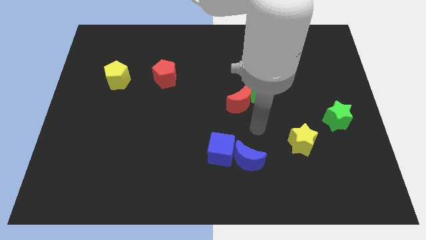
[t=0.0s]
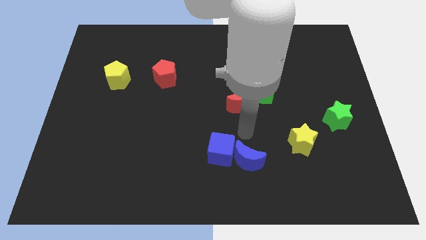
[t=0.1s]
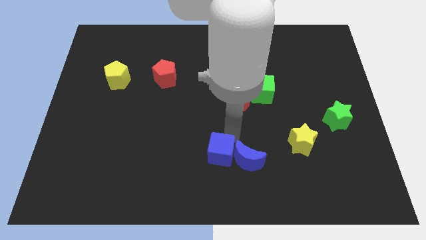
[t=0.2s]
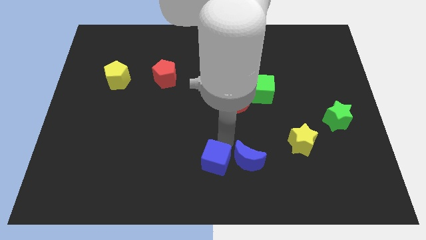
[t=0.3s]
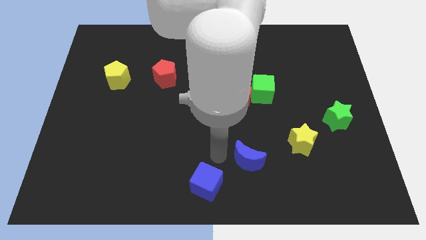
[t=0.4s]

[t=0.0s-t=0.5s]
pull the blue moon apart from the blue cube

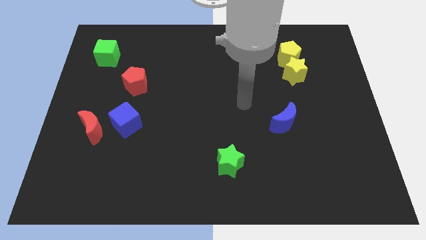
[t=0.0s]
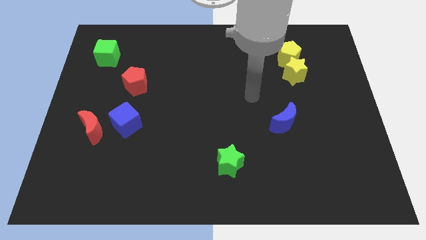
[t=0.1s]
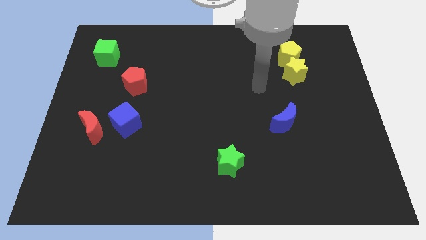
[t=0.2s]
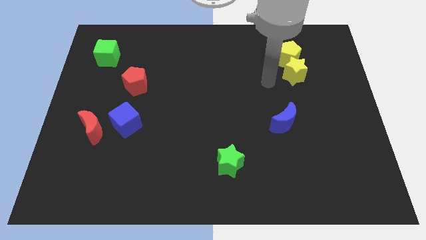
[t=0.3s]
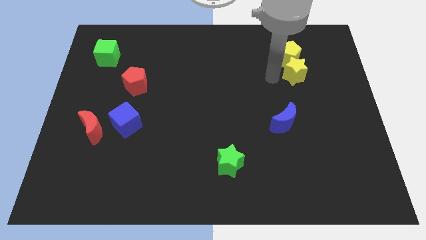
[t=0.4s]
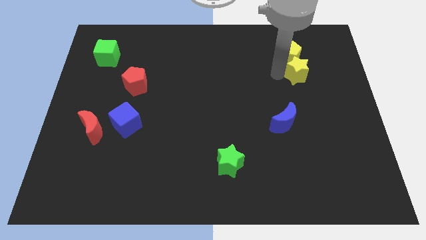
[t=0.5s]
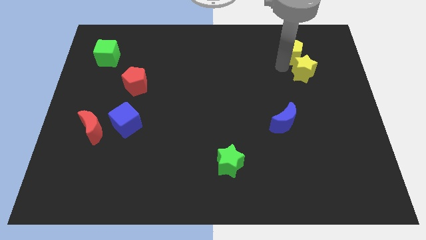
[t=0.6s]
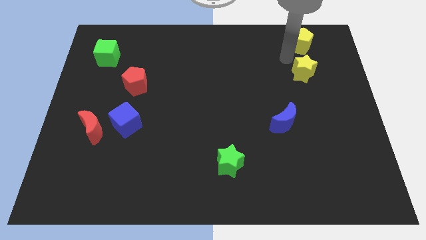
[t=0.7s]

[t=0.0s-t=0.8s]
pull the yellow star apart from the yellow pentagon

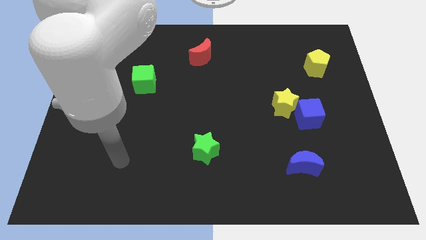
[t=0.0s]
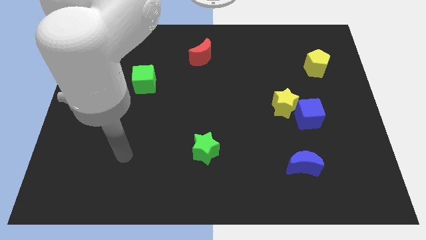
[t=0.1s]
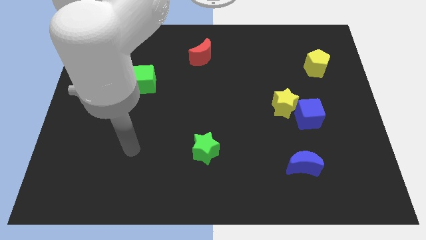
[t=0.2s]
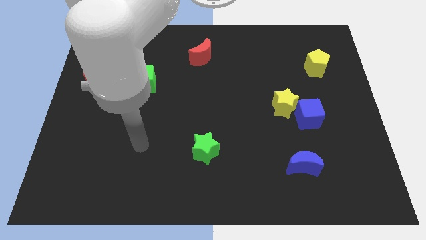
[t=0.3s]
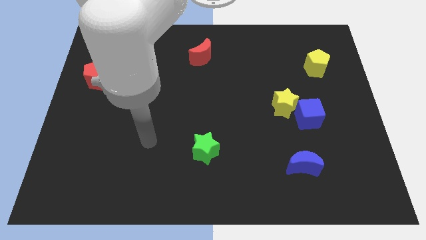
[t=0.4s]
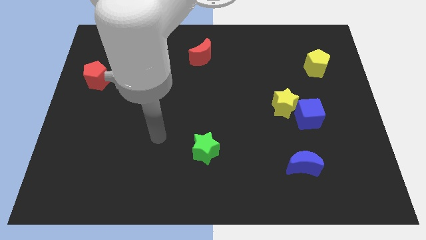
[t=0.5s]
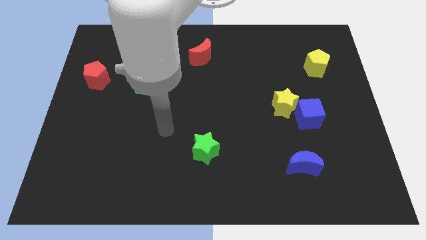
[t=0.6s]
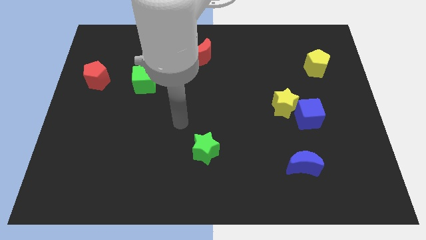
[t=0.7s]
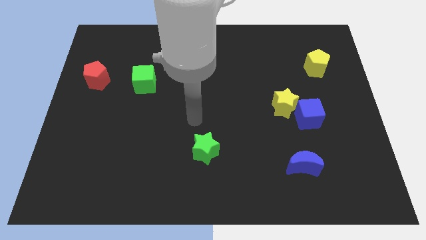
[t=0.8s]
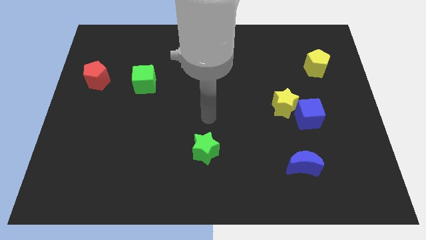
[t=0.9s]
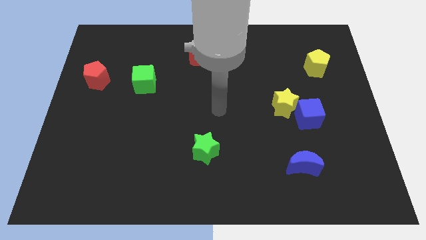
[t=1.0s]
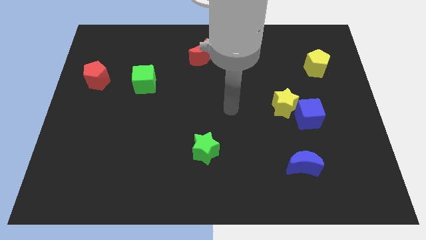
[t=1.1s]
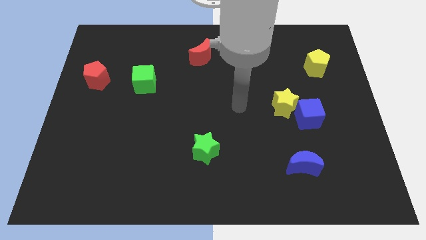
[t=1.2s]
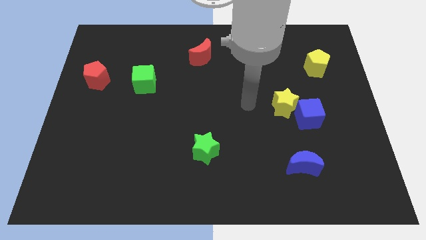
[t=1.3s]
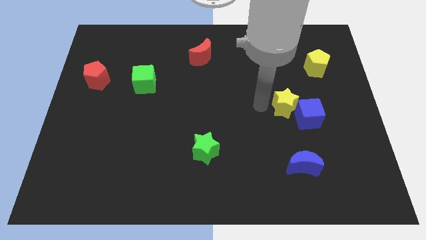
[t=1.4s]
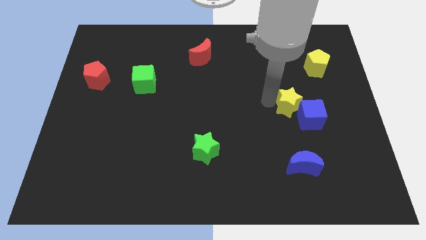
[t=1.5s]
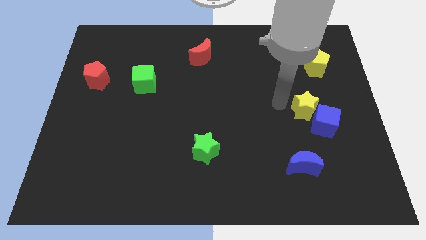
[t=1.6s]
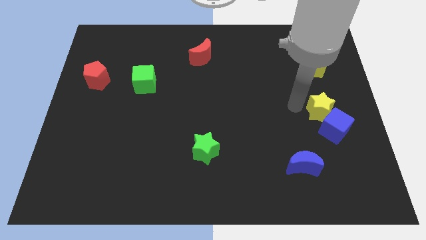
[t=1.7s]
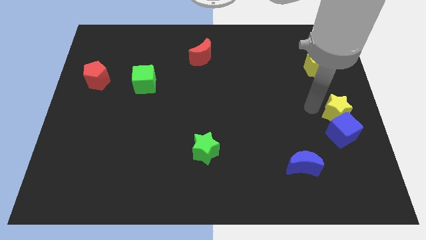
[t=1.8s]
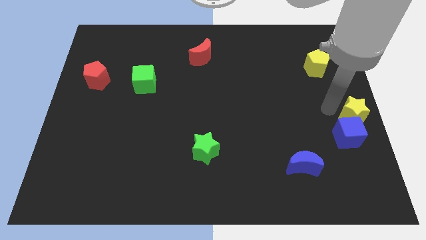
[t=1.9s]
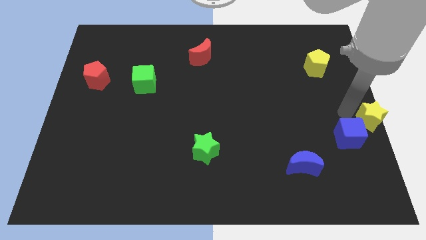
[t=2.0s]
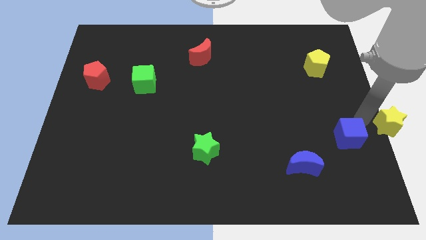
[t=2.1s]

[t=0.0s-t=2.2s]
separate the blue cube from the yellow star

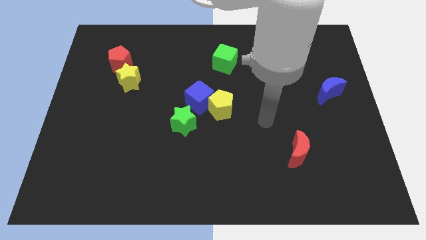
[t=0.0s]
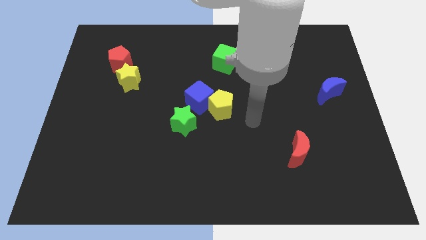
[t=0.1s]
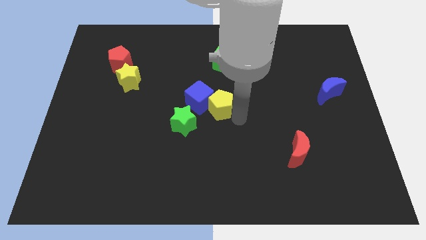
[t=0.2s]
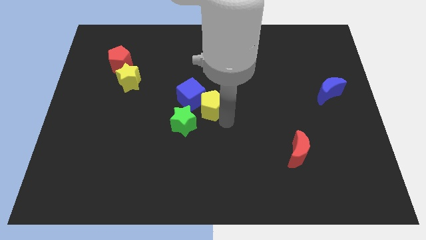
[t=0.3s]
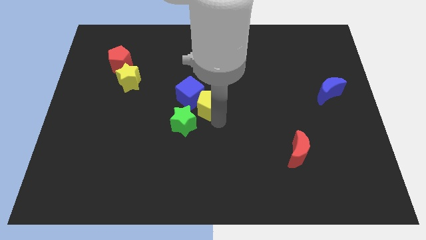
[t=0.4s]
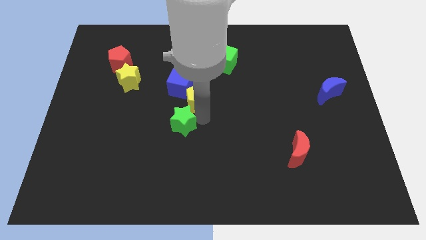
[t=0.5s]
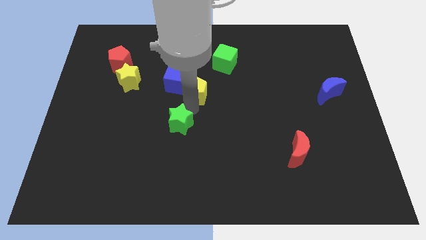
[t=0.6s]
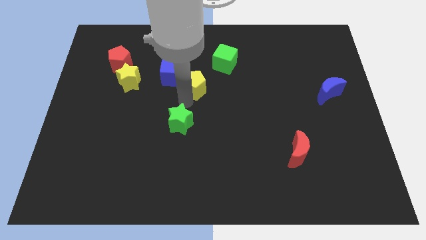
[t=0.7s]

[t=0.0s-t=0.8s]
pull the blue cube apart from the yellow pentagon and green star

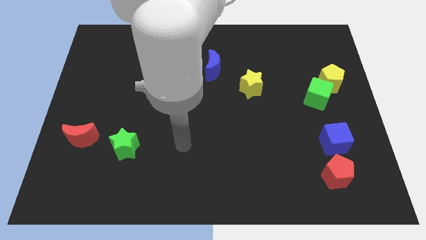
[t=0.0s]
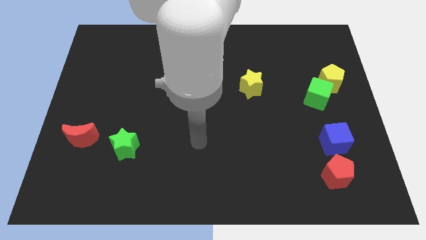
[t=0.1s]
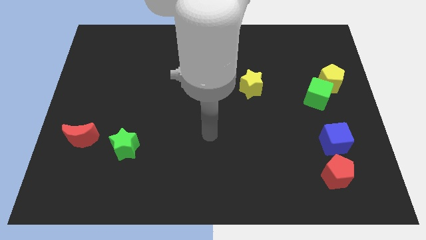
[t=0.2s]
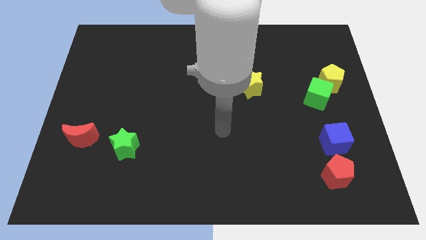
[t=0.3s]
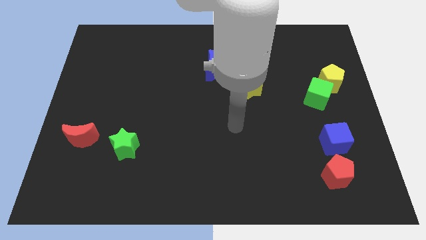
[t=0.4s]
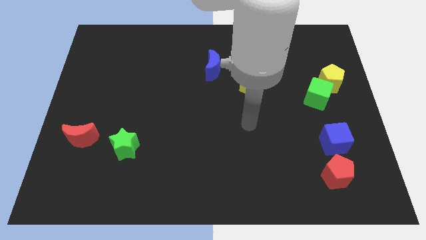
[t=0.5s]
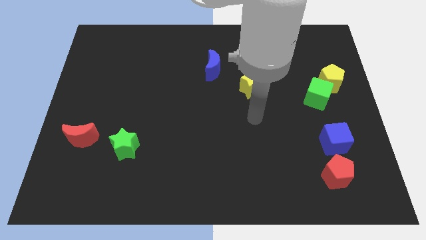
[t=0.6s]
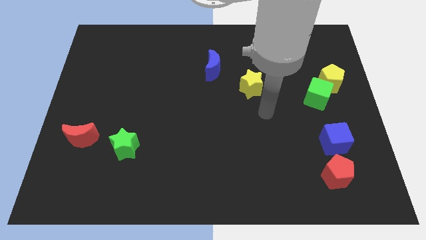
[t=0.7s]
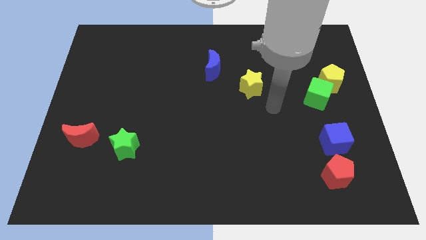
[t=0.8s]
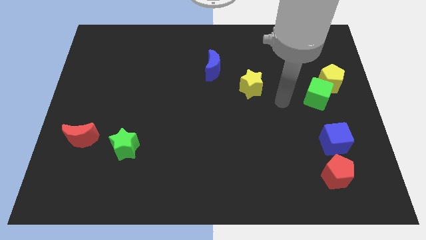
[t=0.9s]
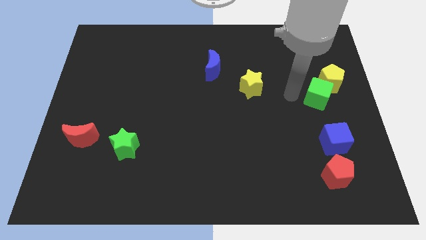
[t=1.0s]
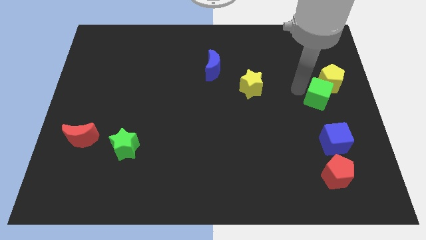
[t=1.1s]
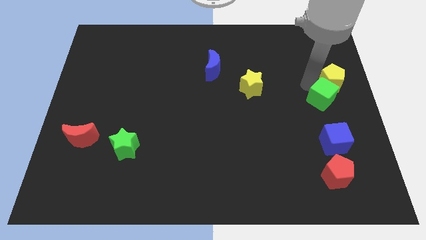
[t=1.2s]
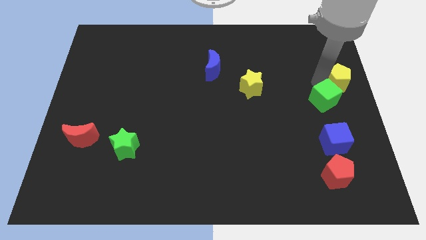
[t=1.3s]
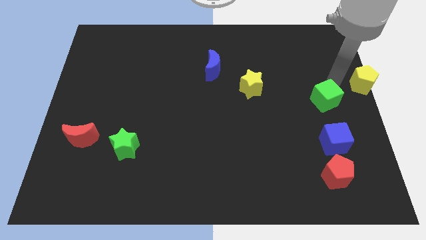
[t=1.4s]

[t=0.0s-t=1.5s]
move the green cube away from the yellow pentagon

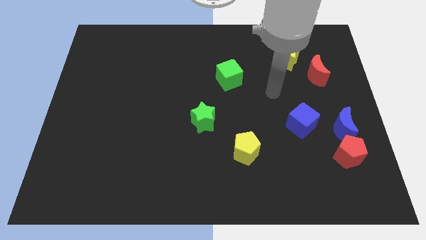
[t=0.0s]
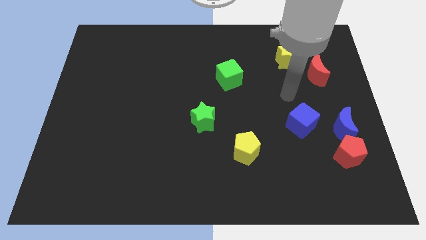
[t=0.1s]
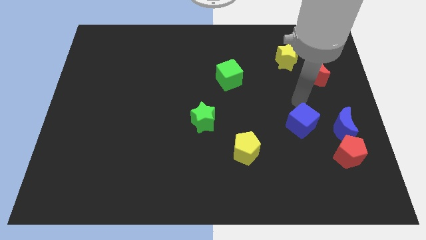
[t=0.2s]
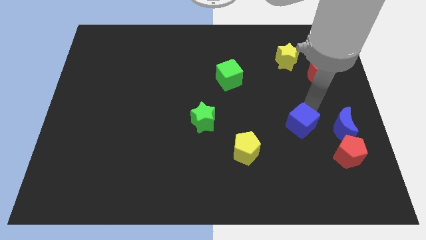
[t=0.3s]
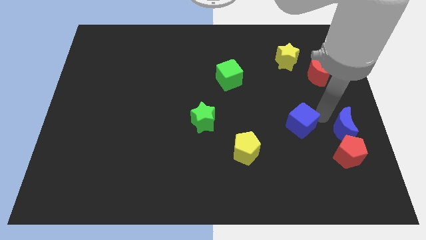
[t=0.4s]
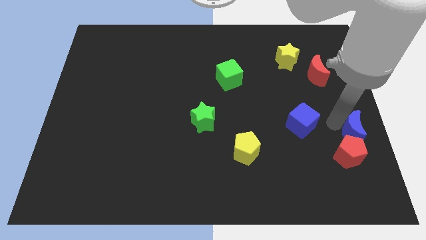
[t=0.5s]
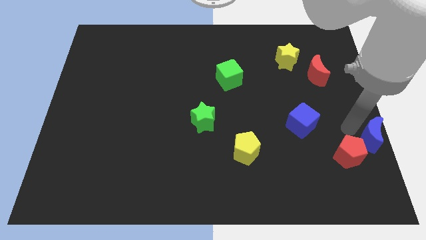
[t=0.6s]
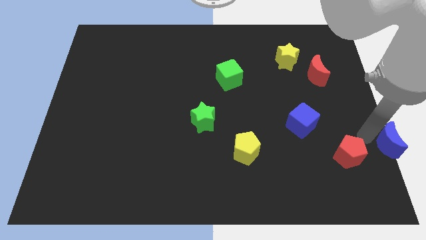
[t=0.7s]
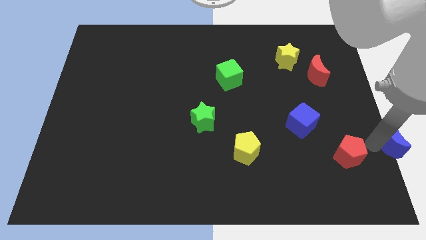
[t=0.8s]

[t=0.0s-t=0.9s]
pull the red pentagon apart from the blue moon

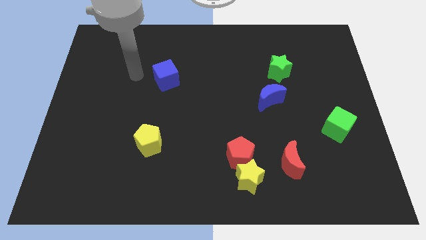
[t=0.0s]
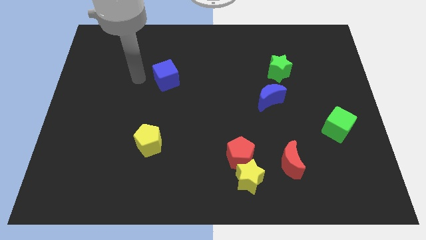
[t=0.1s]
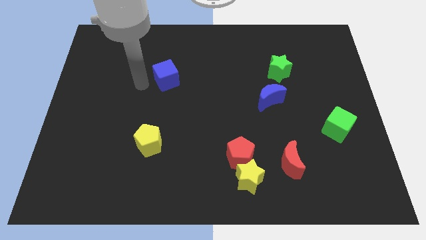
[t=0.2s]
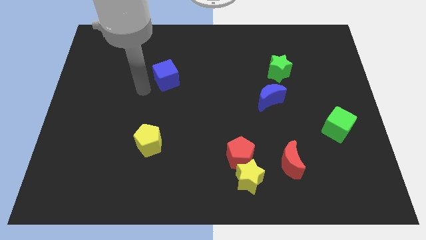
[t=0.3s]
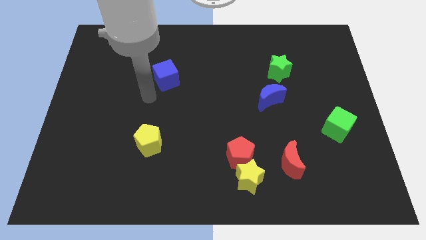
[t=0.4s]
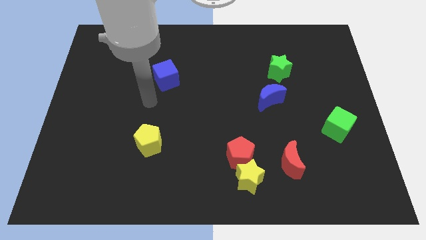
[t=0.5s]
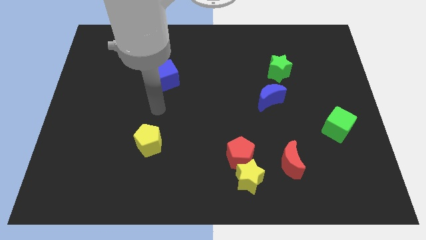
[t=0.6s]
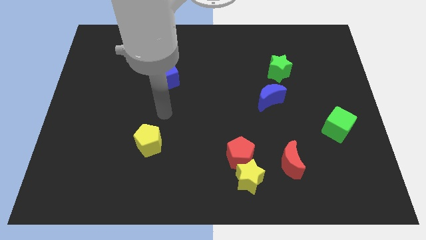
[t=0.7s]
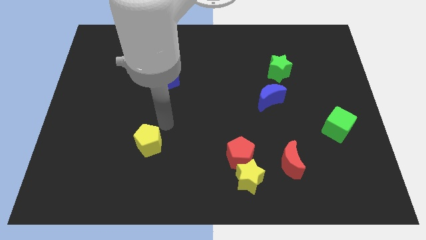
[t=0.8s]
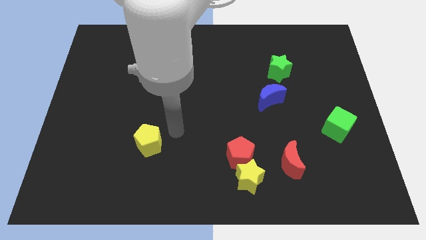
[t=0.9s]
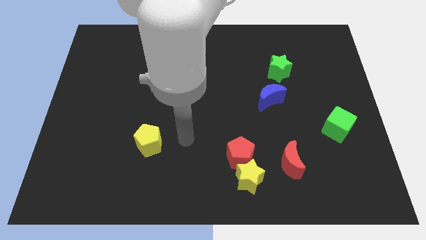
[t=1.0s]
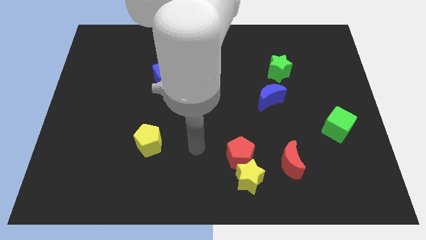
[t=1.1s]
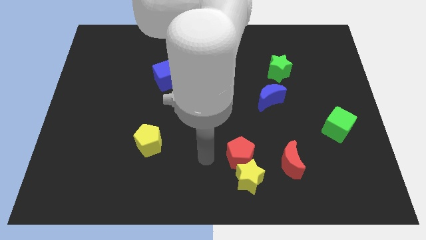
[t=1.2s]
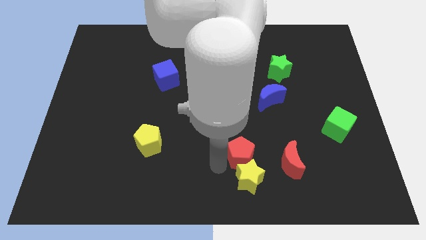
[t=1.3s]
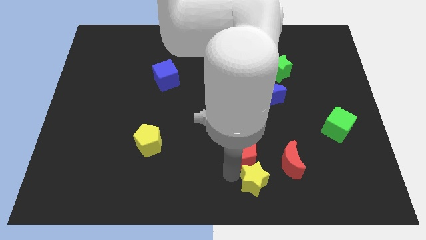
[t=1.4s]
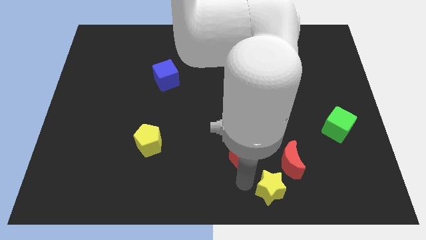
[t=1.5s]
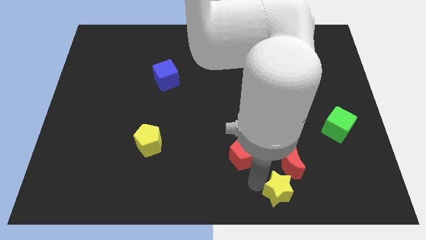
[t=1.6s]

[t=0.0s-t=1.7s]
separate the red pentagon from the yellow star

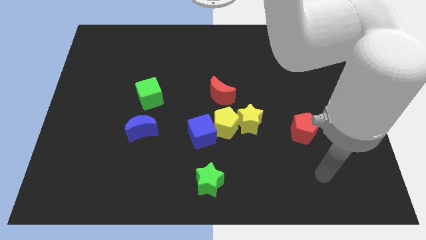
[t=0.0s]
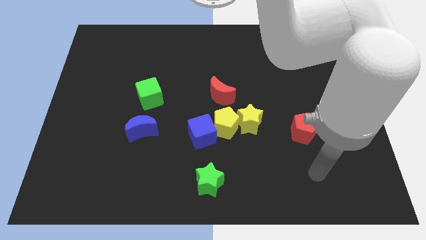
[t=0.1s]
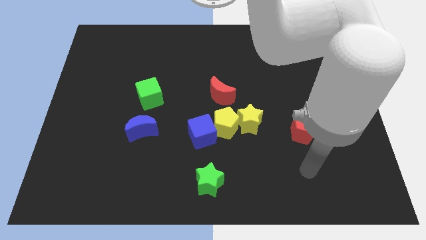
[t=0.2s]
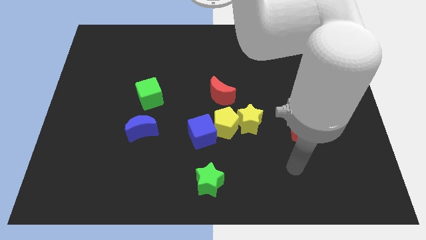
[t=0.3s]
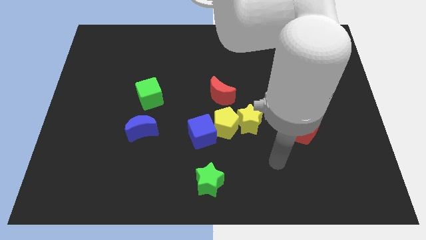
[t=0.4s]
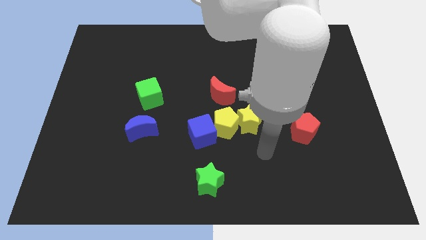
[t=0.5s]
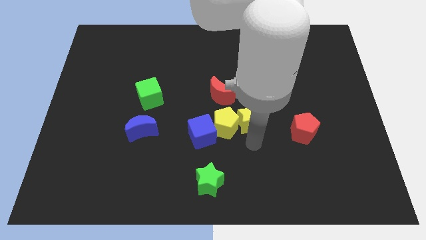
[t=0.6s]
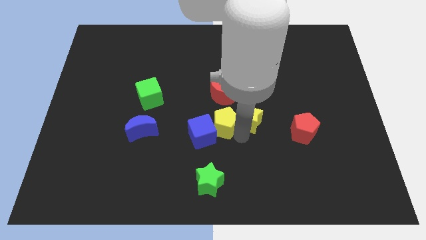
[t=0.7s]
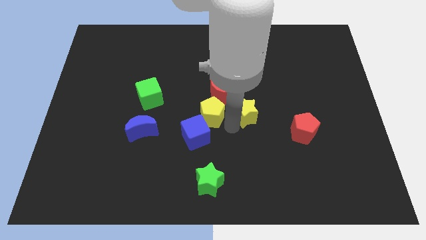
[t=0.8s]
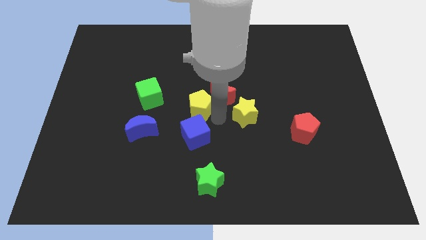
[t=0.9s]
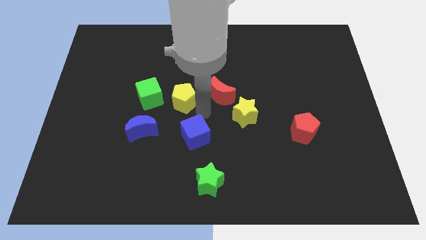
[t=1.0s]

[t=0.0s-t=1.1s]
move the blue cube away from the yellow pentagon
